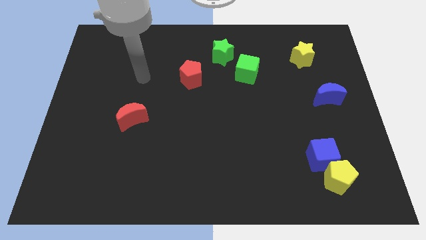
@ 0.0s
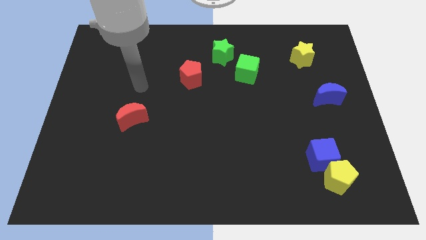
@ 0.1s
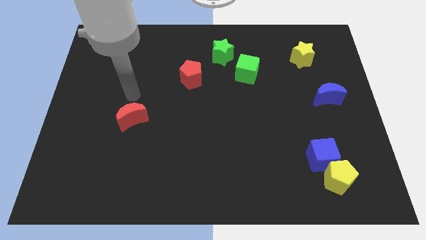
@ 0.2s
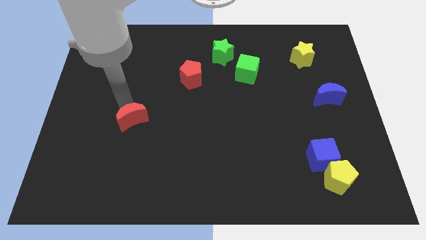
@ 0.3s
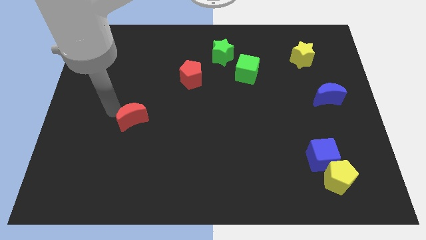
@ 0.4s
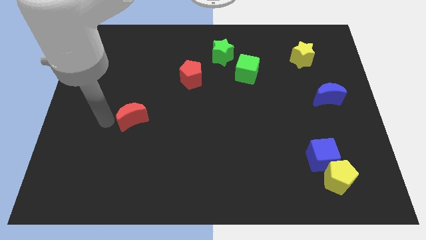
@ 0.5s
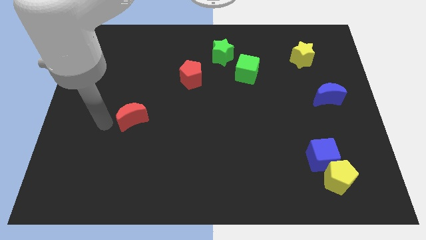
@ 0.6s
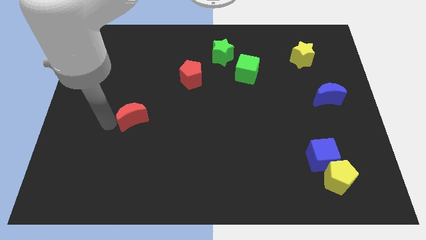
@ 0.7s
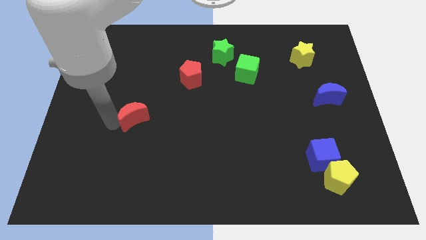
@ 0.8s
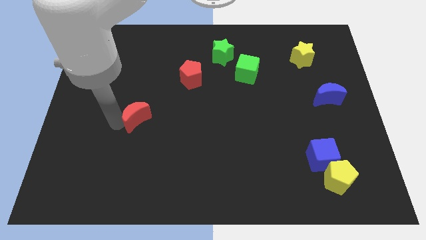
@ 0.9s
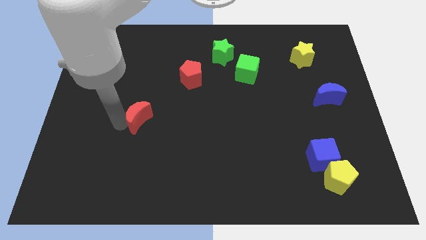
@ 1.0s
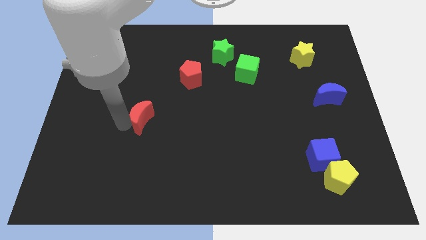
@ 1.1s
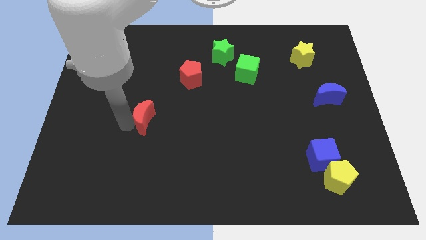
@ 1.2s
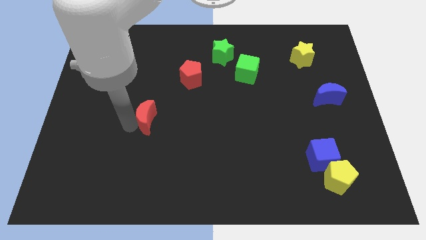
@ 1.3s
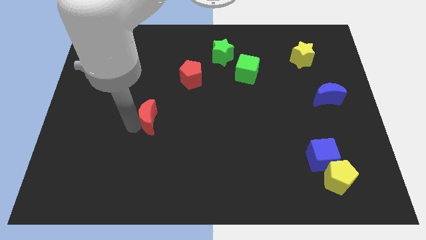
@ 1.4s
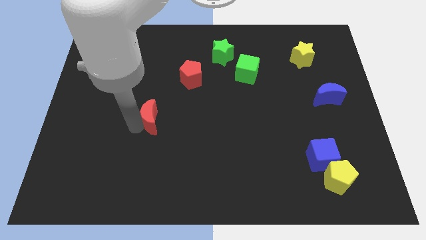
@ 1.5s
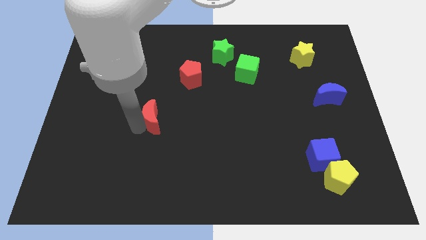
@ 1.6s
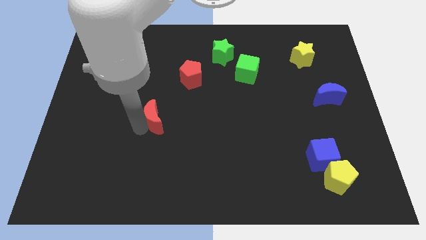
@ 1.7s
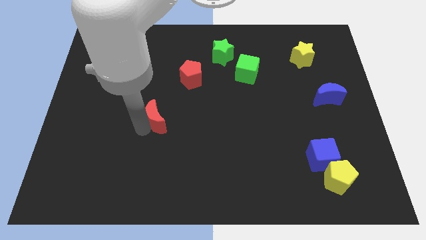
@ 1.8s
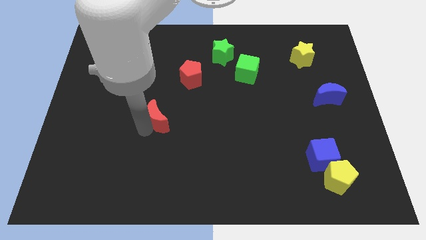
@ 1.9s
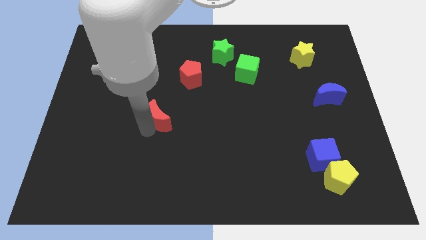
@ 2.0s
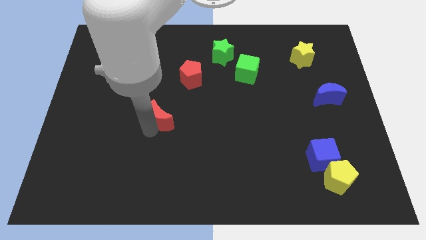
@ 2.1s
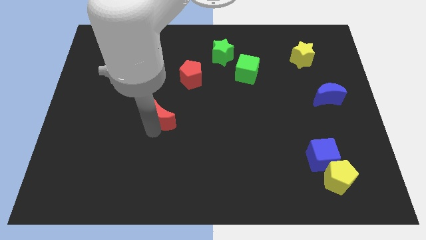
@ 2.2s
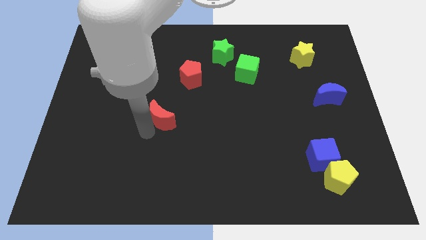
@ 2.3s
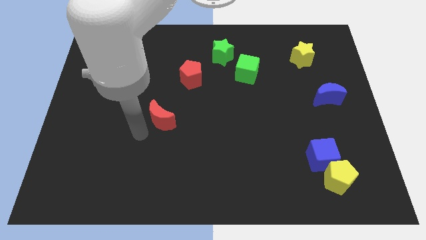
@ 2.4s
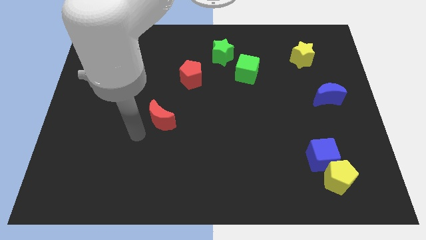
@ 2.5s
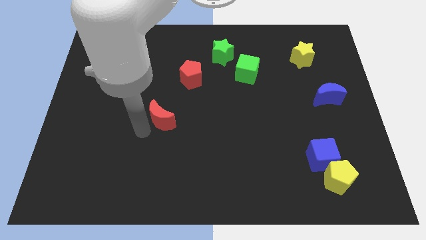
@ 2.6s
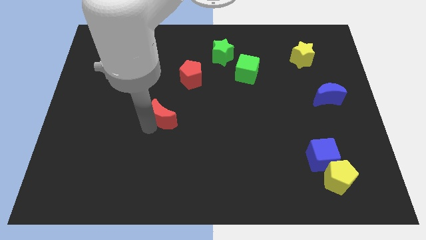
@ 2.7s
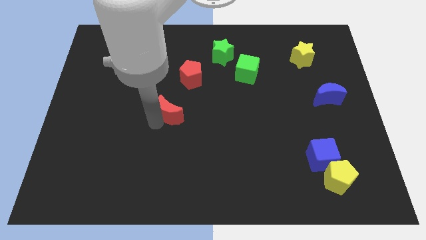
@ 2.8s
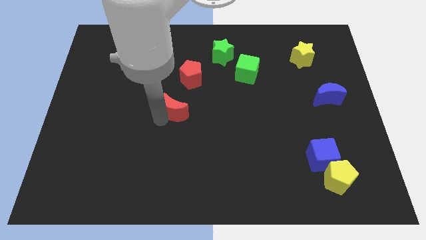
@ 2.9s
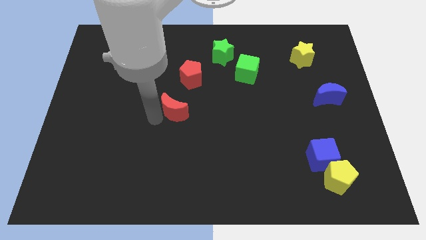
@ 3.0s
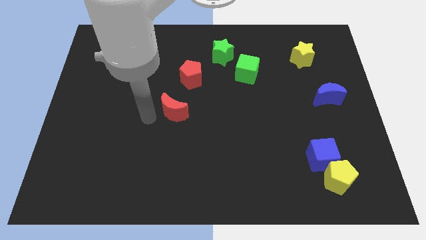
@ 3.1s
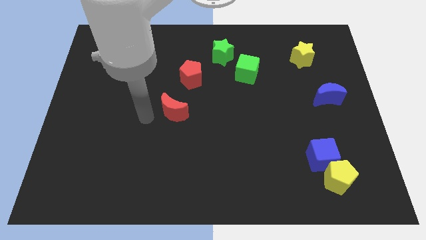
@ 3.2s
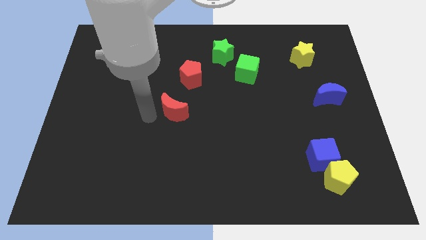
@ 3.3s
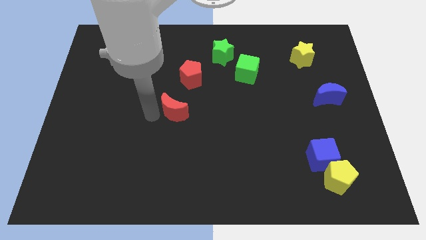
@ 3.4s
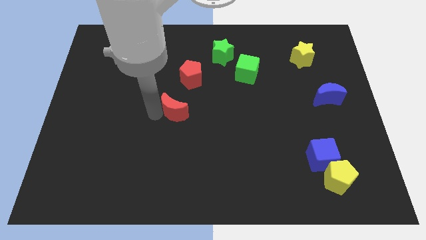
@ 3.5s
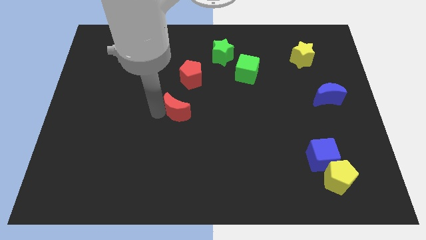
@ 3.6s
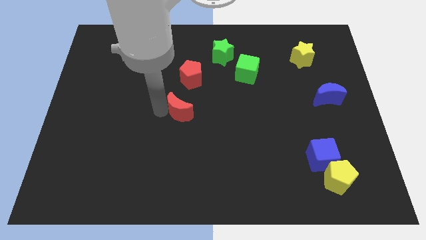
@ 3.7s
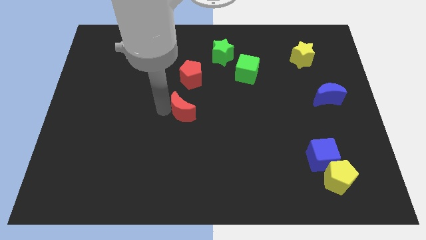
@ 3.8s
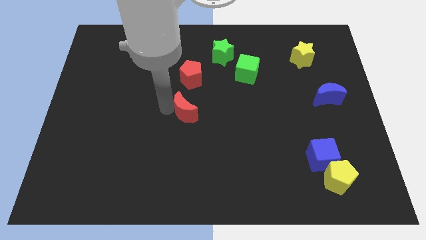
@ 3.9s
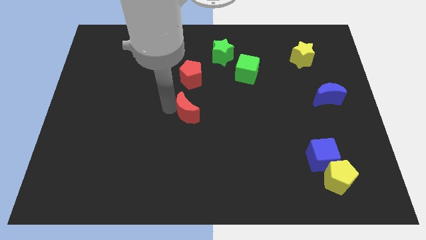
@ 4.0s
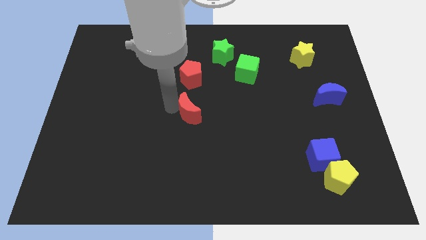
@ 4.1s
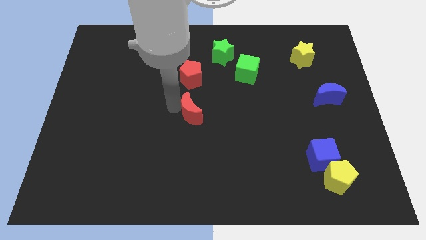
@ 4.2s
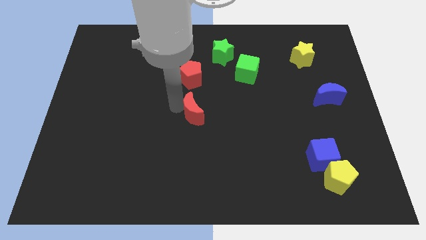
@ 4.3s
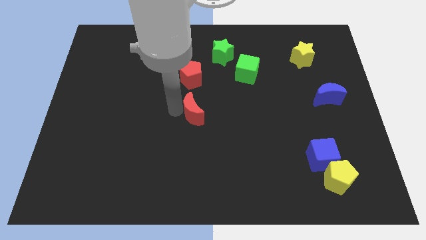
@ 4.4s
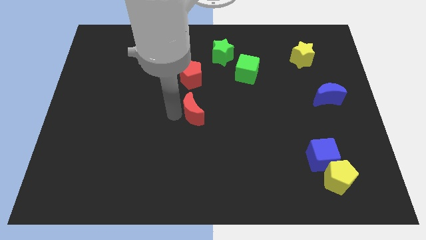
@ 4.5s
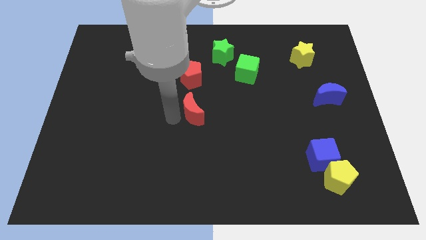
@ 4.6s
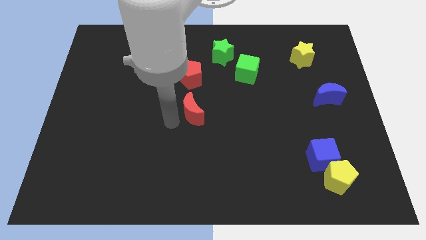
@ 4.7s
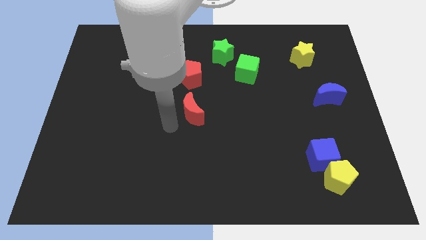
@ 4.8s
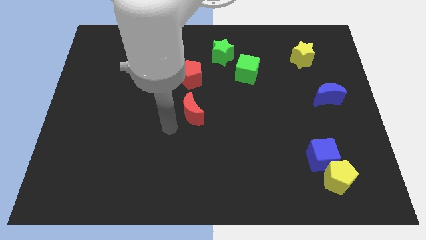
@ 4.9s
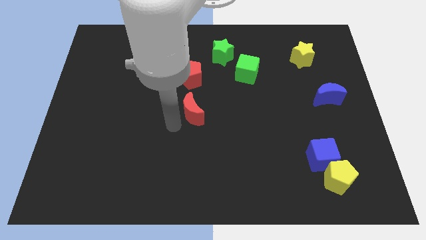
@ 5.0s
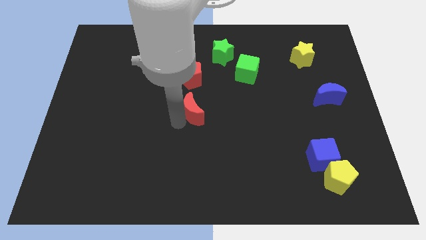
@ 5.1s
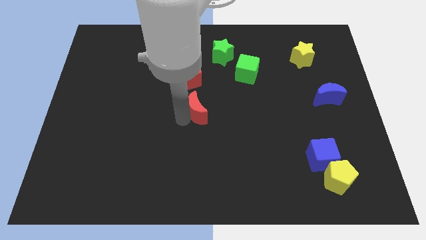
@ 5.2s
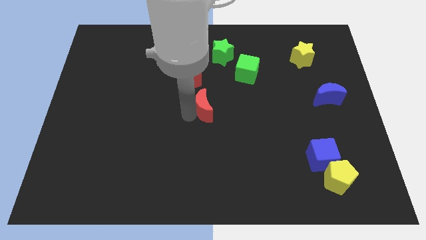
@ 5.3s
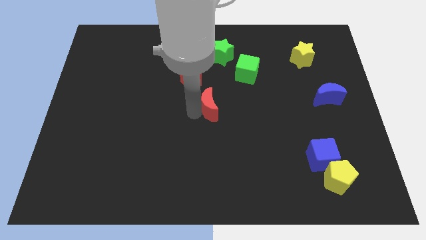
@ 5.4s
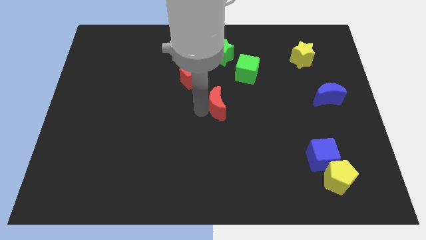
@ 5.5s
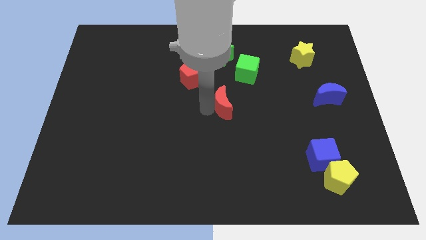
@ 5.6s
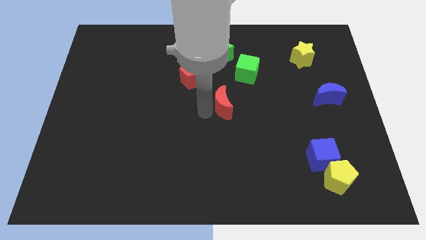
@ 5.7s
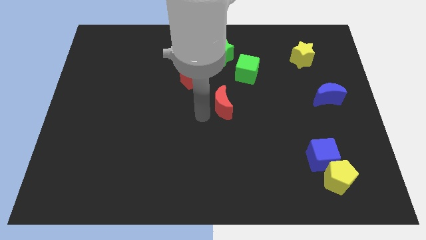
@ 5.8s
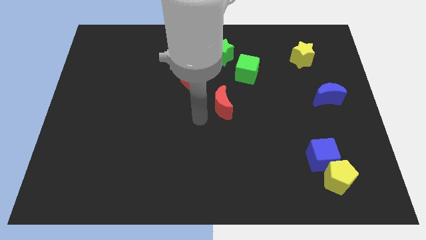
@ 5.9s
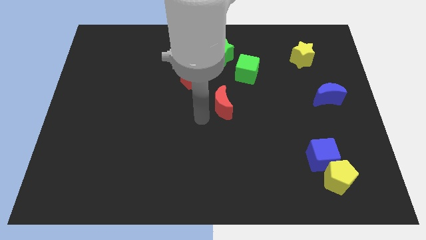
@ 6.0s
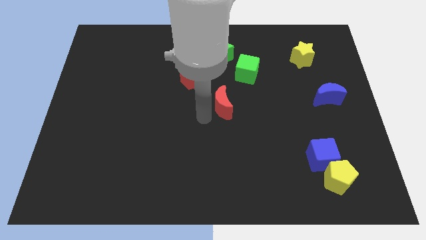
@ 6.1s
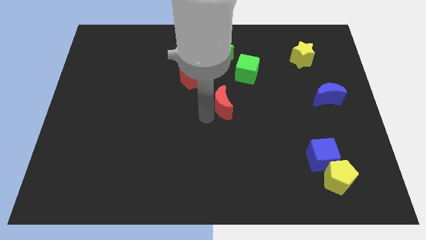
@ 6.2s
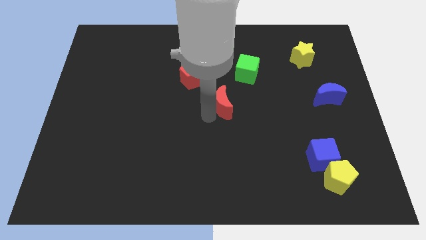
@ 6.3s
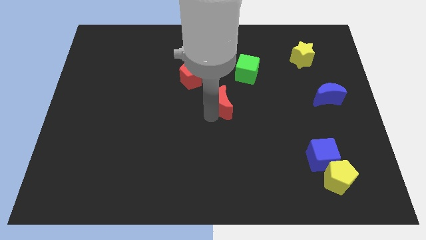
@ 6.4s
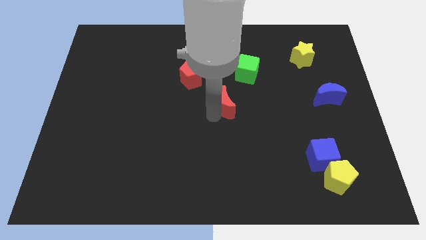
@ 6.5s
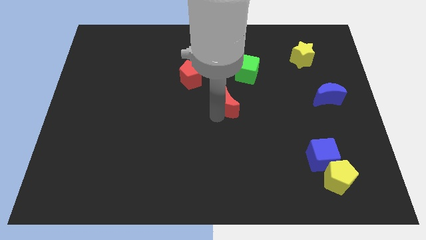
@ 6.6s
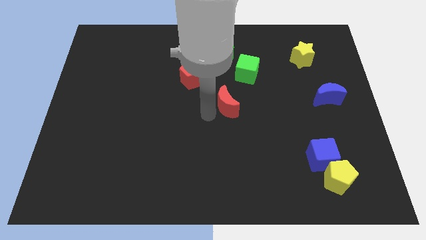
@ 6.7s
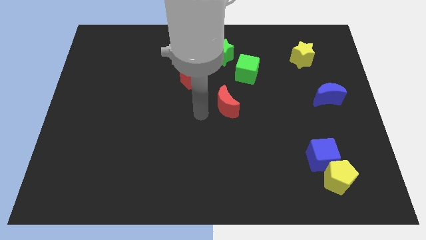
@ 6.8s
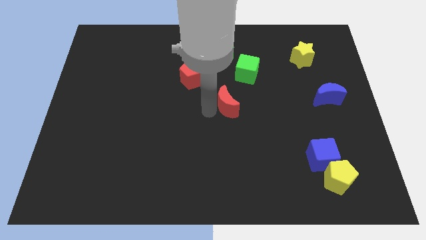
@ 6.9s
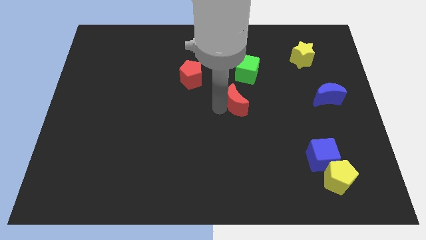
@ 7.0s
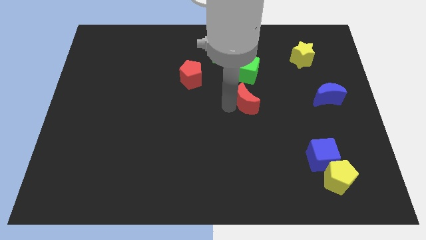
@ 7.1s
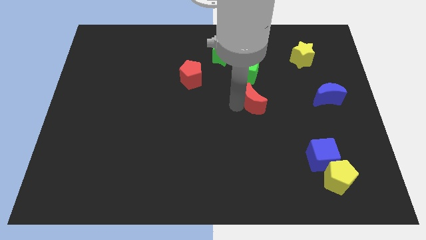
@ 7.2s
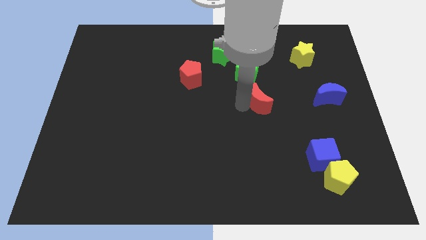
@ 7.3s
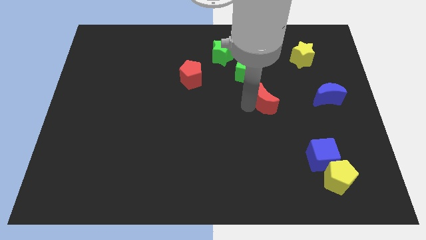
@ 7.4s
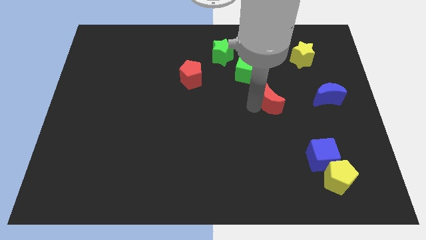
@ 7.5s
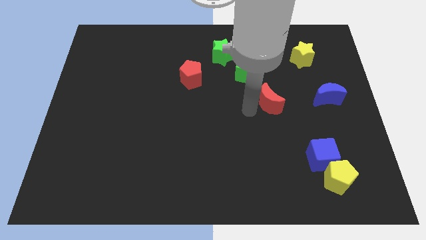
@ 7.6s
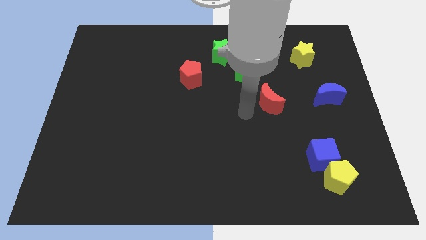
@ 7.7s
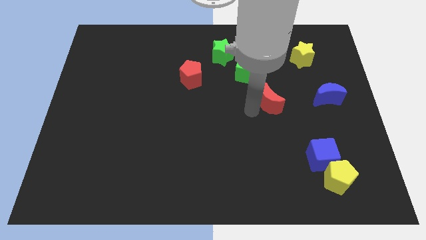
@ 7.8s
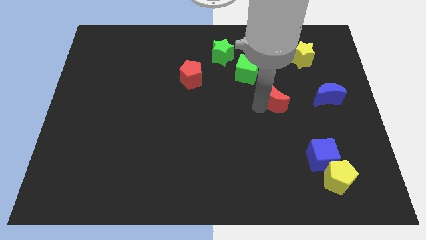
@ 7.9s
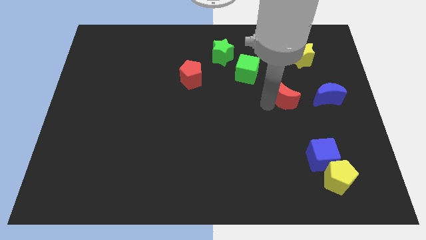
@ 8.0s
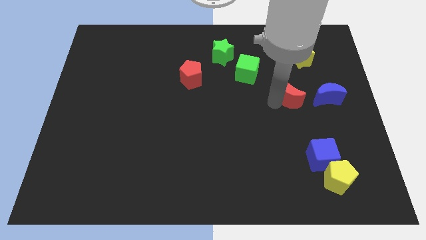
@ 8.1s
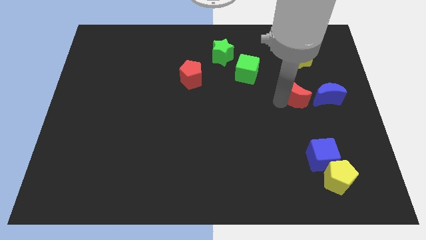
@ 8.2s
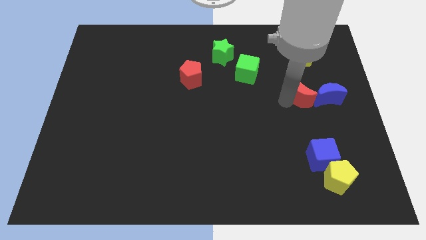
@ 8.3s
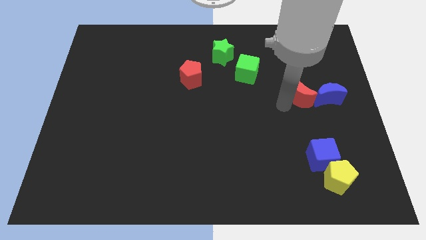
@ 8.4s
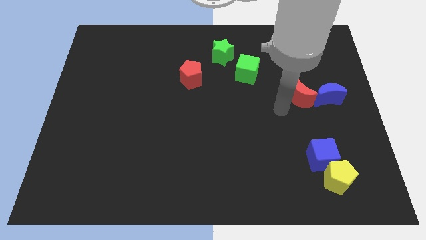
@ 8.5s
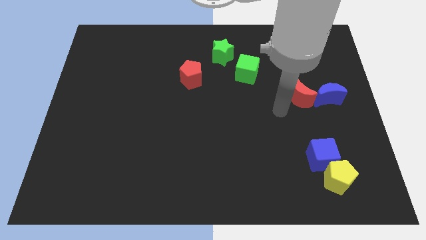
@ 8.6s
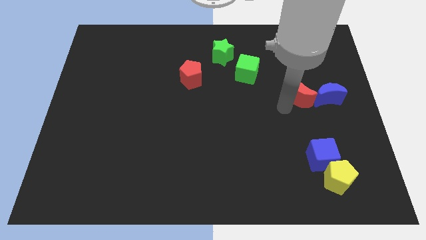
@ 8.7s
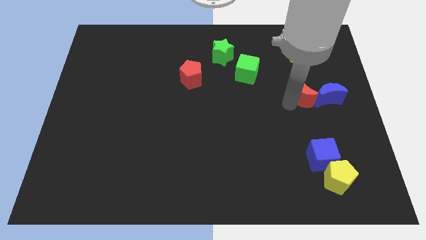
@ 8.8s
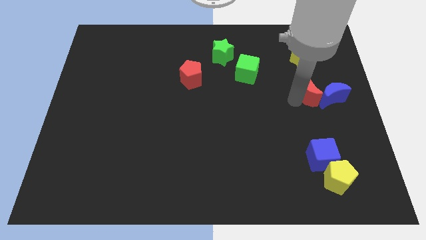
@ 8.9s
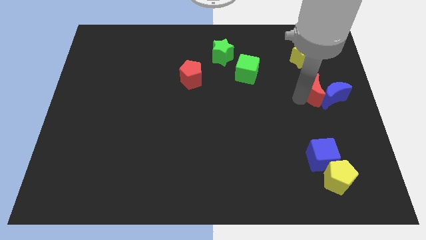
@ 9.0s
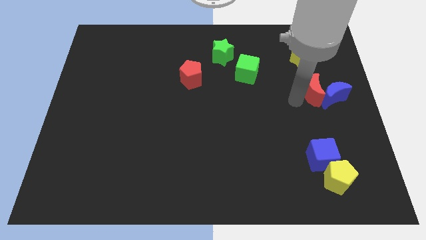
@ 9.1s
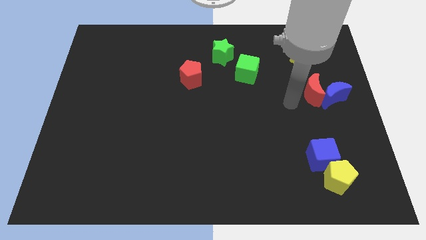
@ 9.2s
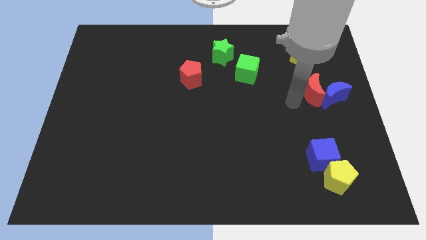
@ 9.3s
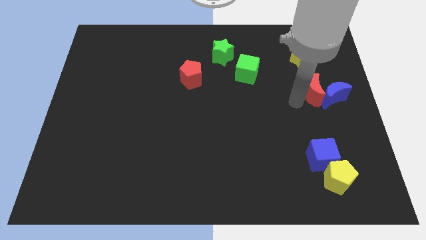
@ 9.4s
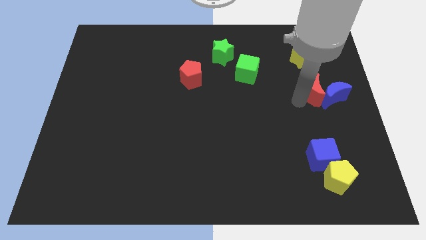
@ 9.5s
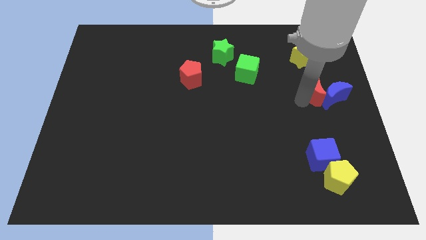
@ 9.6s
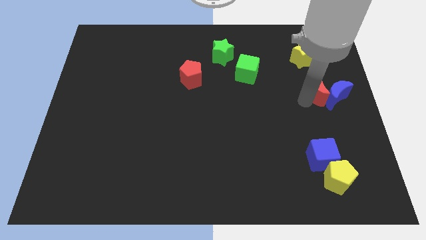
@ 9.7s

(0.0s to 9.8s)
slide the red moon to the right side
